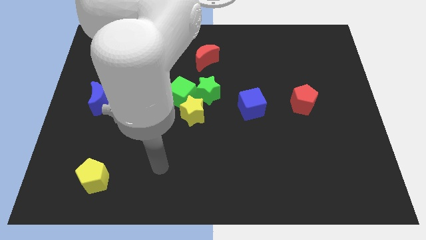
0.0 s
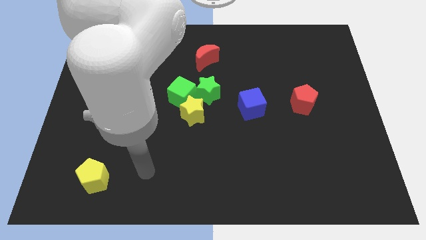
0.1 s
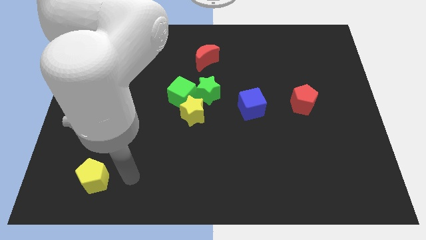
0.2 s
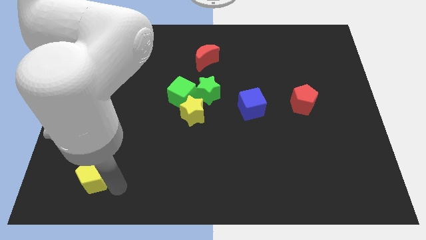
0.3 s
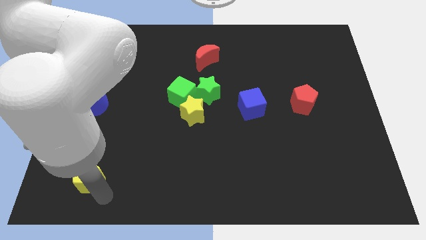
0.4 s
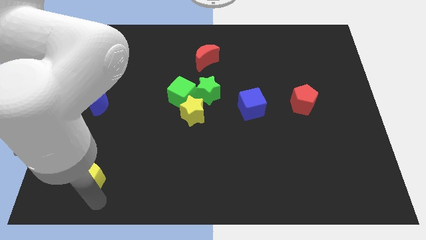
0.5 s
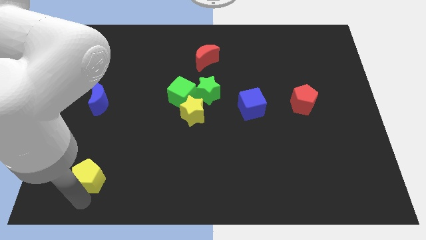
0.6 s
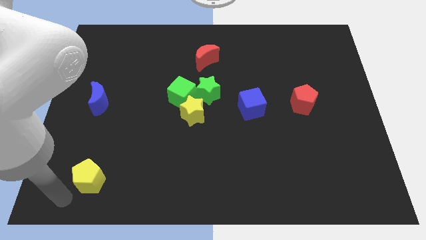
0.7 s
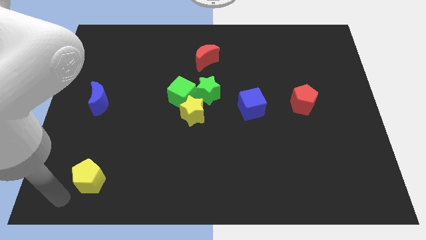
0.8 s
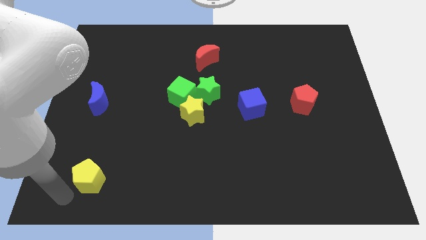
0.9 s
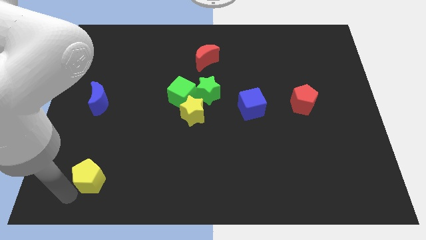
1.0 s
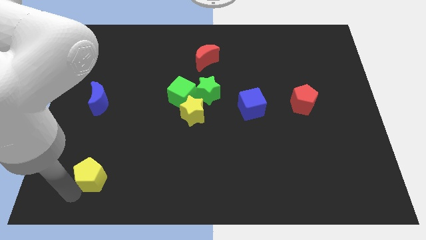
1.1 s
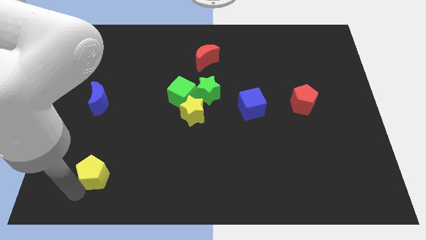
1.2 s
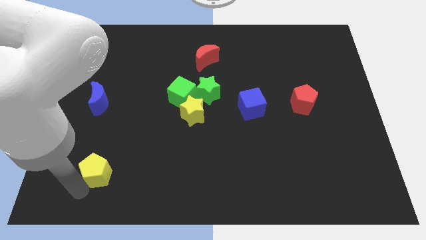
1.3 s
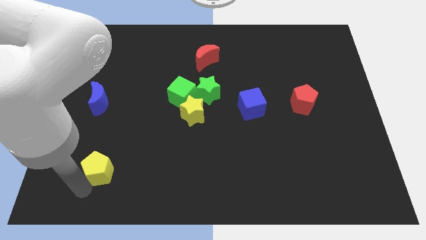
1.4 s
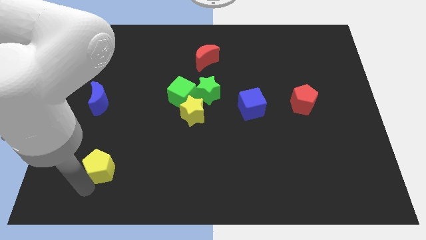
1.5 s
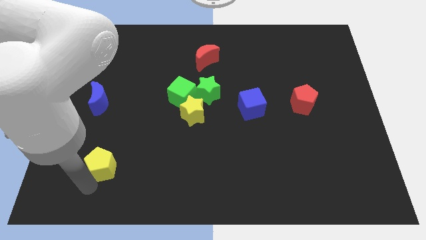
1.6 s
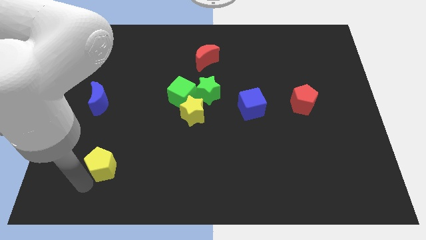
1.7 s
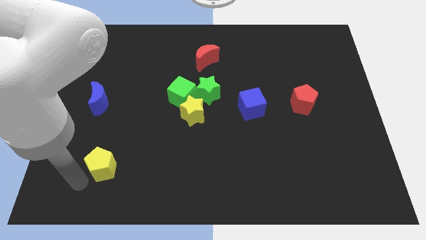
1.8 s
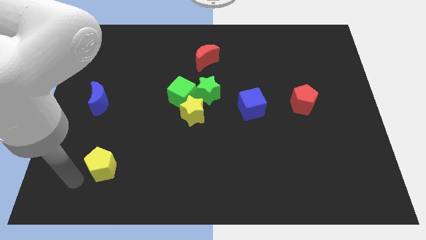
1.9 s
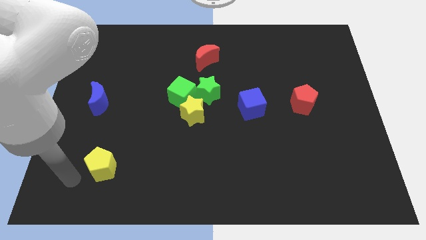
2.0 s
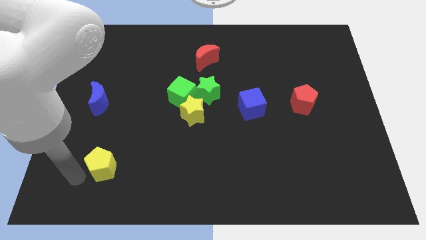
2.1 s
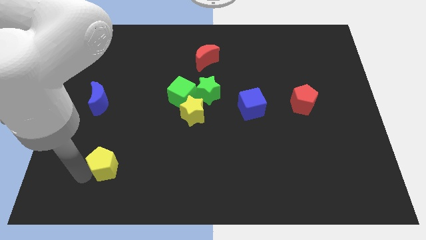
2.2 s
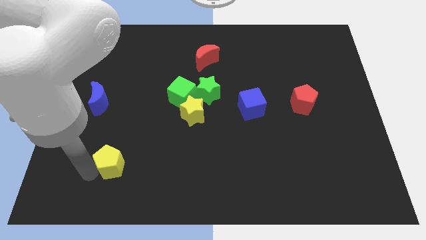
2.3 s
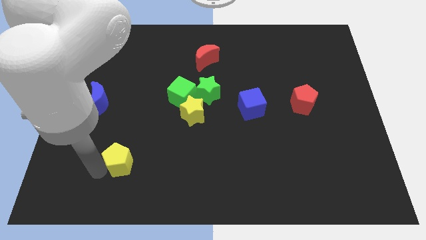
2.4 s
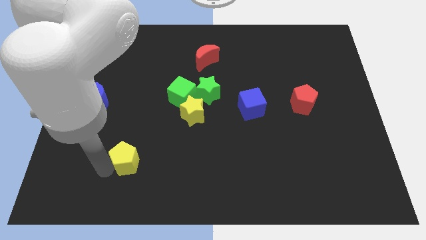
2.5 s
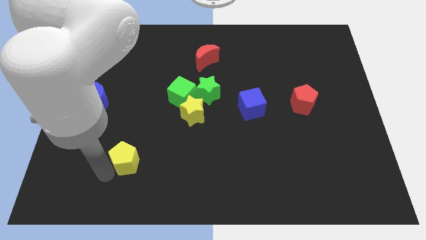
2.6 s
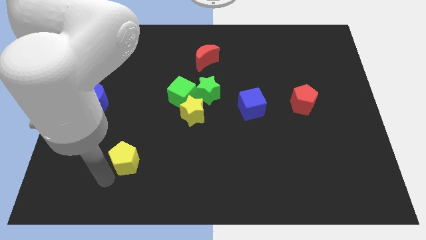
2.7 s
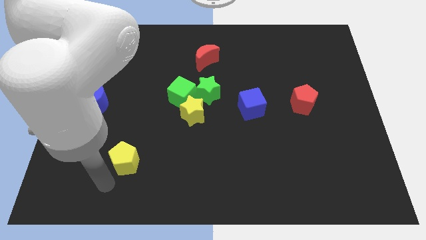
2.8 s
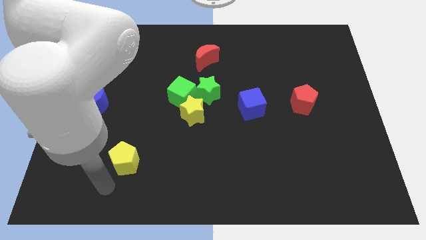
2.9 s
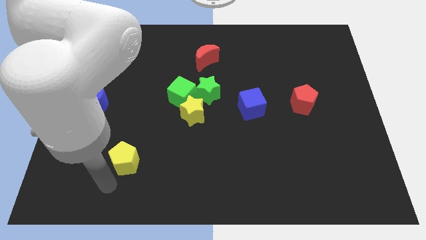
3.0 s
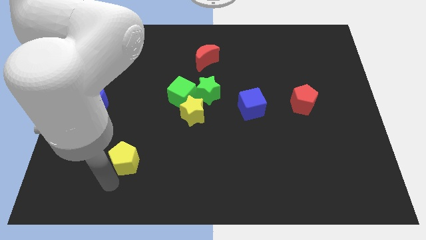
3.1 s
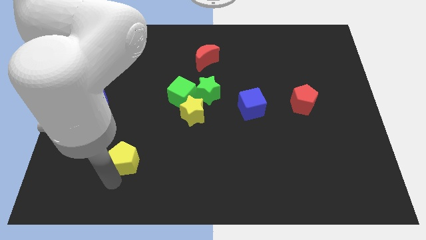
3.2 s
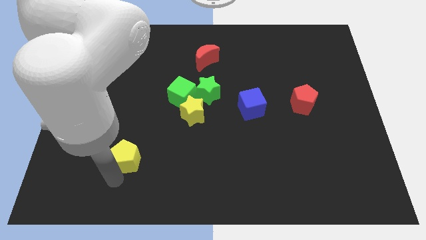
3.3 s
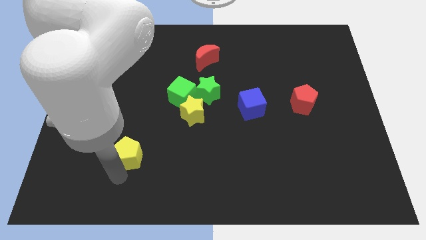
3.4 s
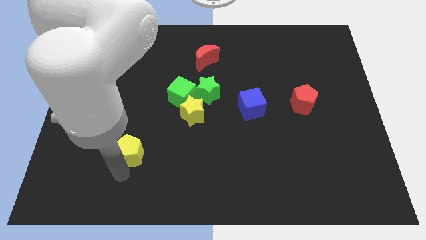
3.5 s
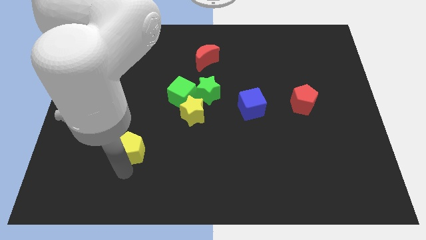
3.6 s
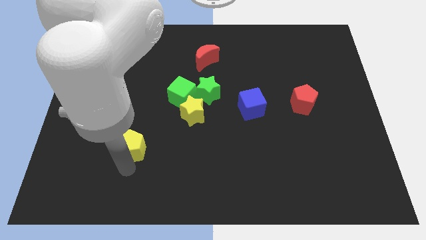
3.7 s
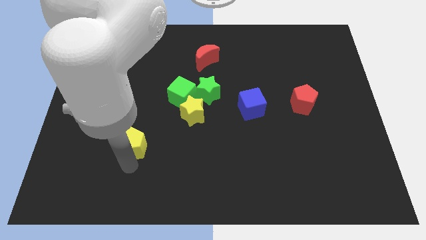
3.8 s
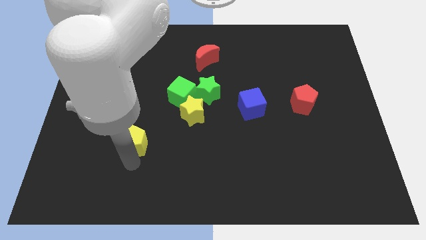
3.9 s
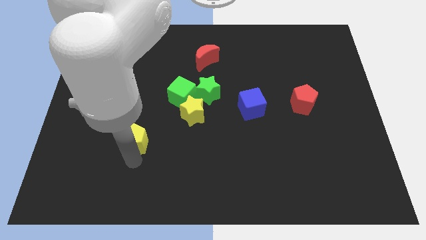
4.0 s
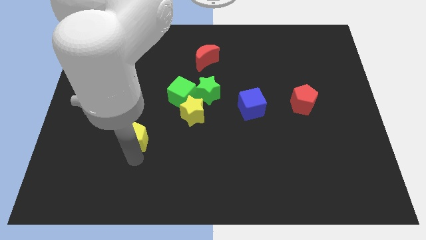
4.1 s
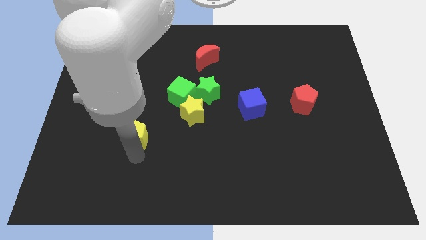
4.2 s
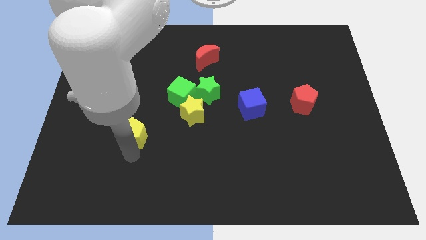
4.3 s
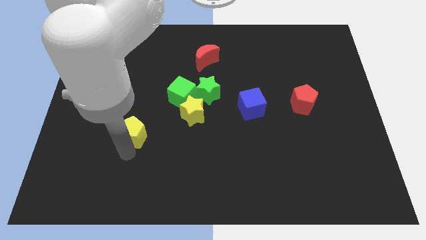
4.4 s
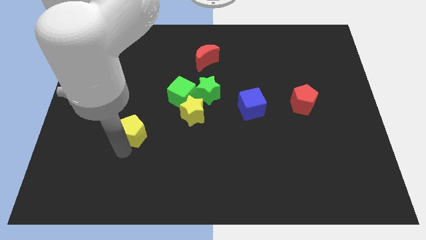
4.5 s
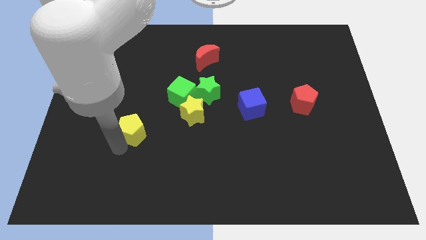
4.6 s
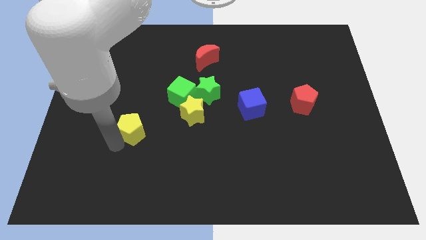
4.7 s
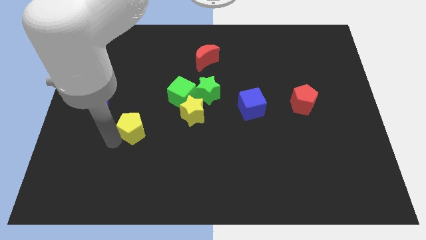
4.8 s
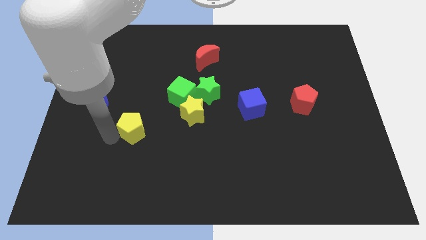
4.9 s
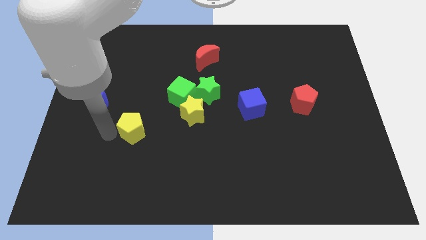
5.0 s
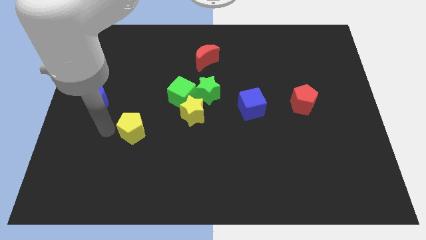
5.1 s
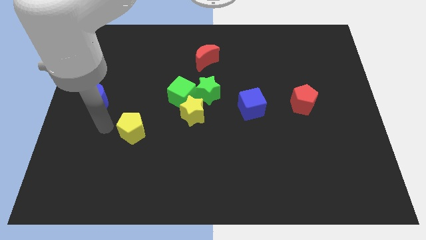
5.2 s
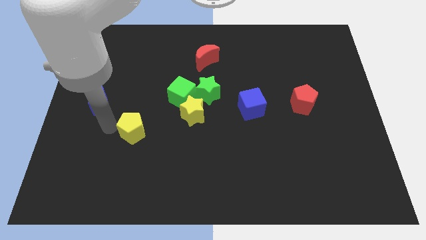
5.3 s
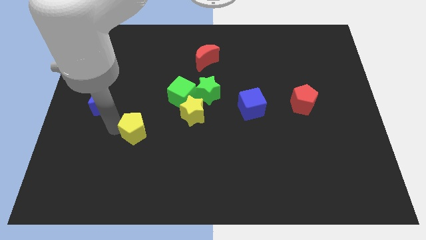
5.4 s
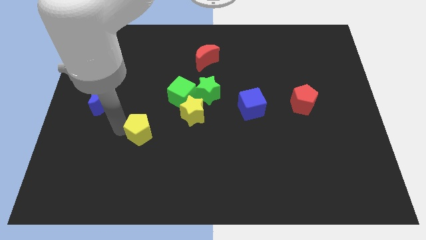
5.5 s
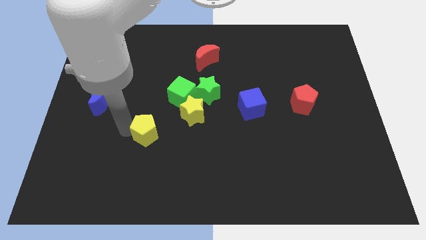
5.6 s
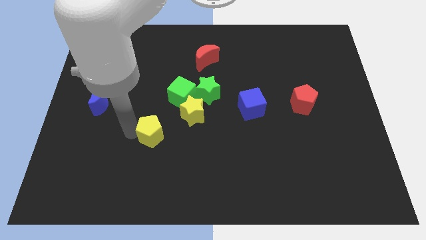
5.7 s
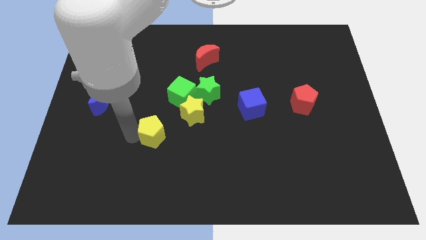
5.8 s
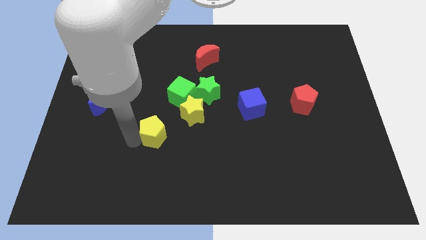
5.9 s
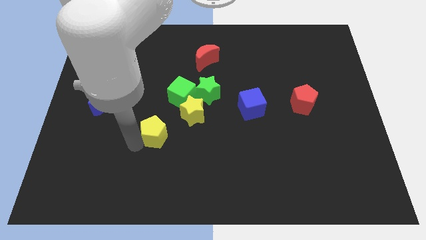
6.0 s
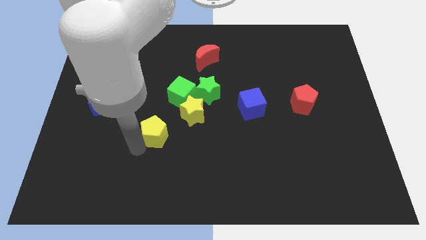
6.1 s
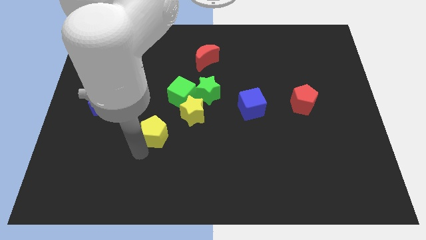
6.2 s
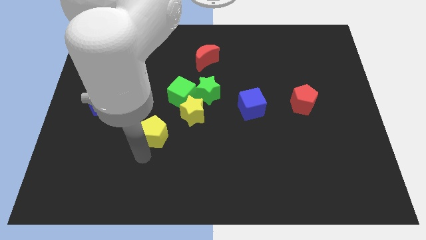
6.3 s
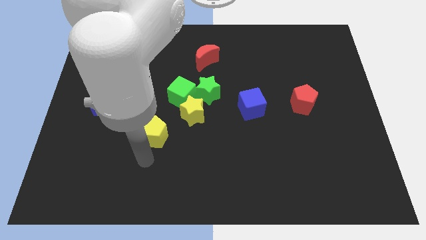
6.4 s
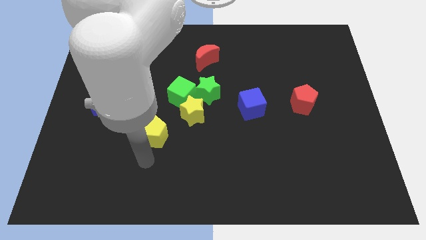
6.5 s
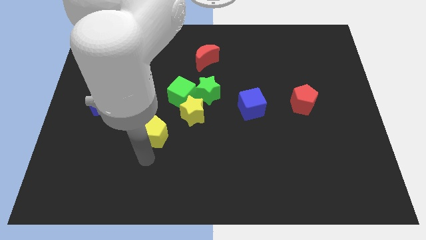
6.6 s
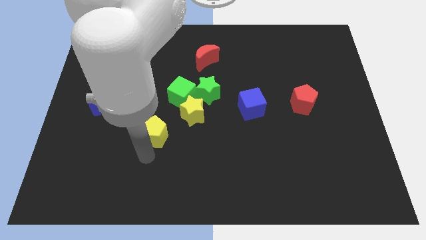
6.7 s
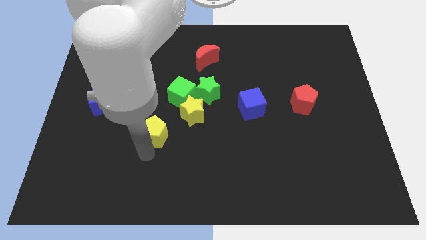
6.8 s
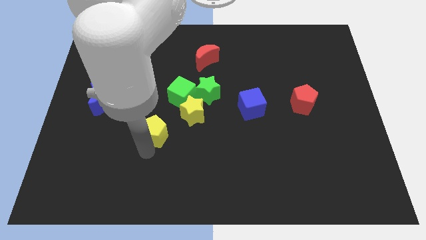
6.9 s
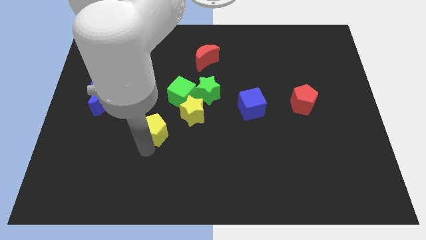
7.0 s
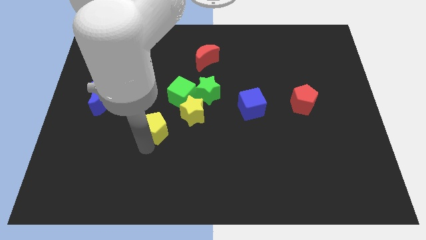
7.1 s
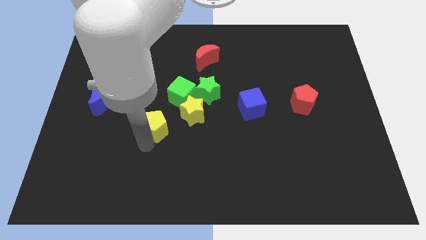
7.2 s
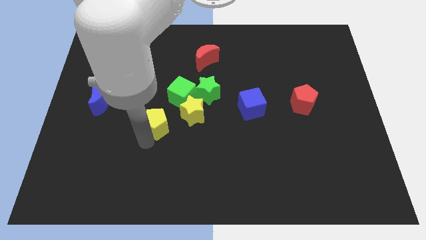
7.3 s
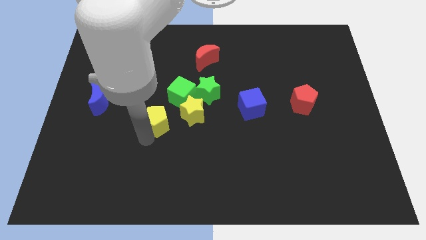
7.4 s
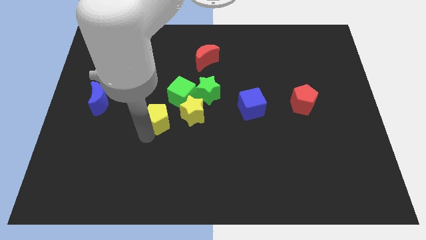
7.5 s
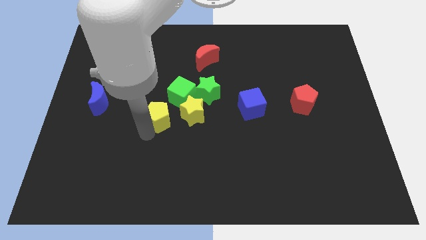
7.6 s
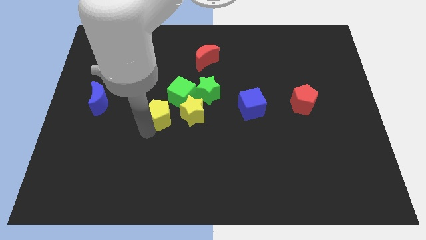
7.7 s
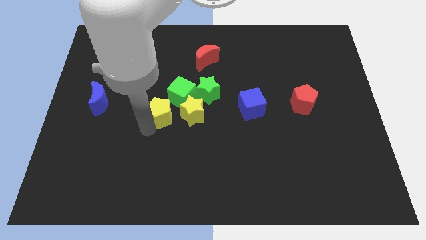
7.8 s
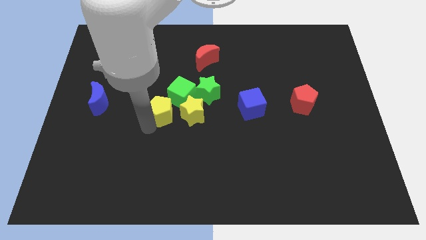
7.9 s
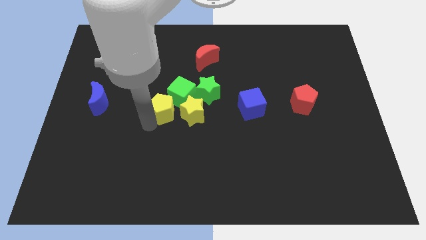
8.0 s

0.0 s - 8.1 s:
push the yellow pentagon to the green cube
